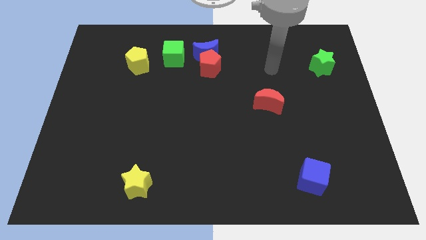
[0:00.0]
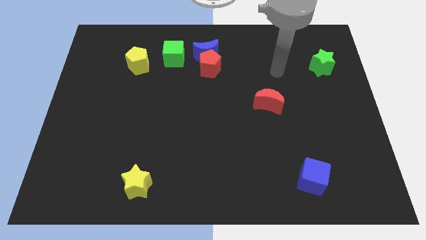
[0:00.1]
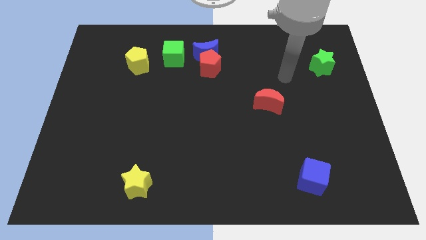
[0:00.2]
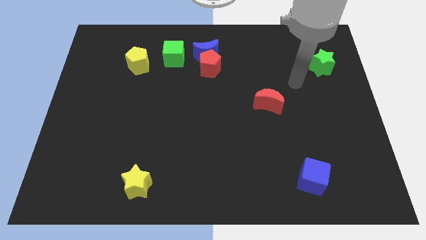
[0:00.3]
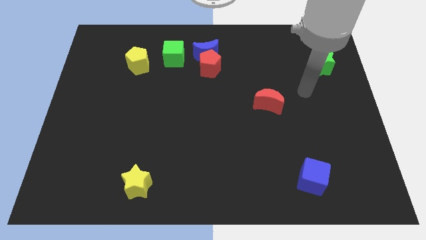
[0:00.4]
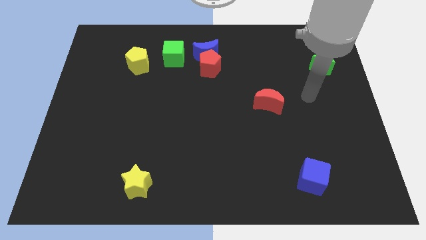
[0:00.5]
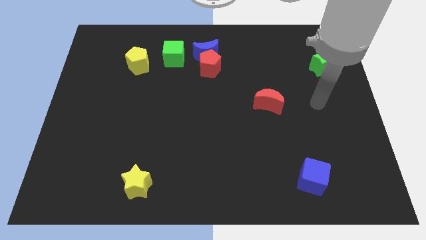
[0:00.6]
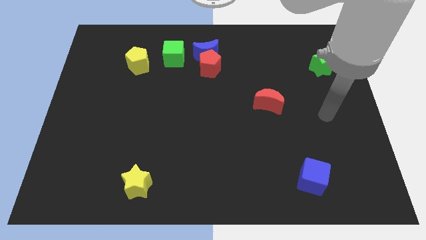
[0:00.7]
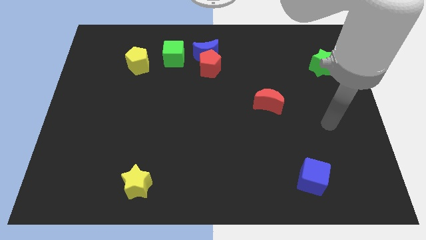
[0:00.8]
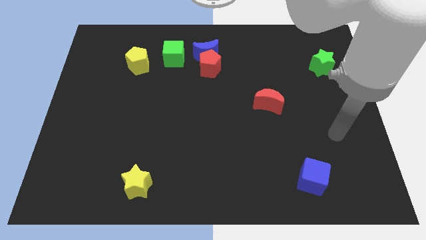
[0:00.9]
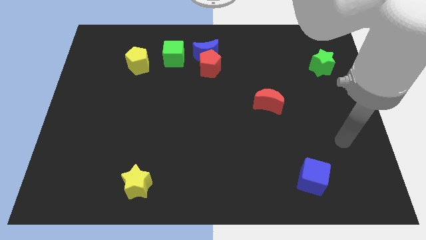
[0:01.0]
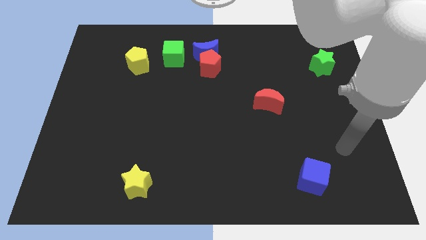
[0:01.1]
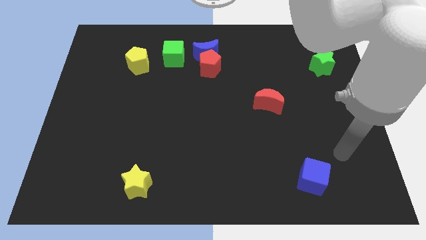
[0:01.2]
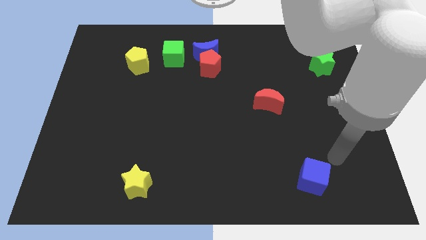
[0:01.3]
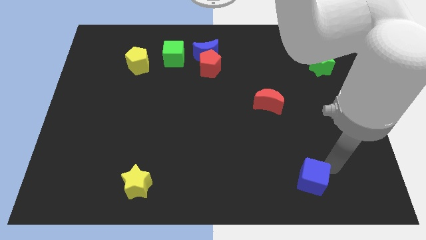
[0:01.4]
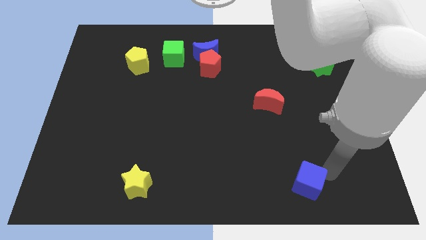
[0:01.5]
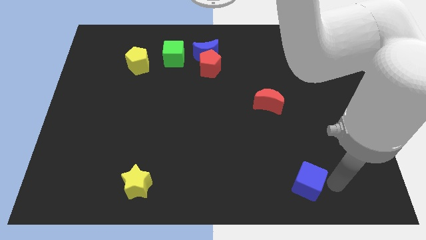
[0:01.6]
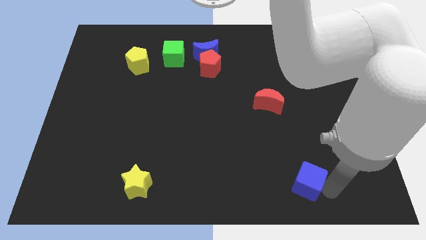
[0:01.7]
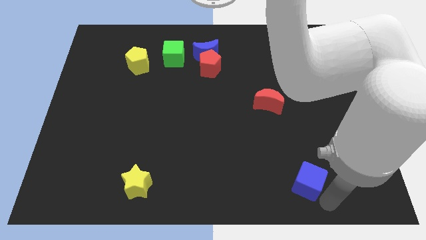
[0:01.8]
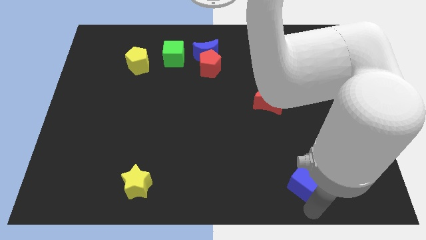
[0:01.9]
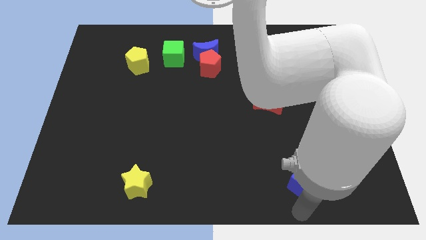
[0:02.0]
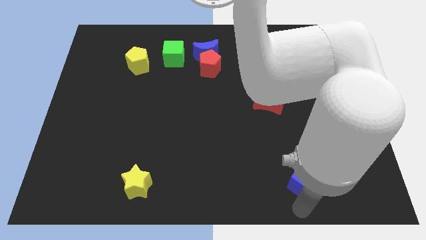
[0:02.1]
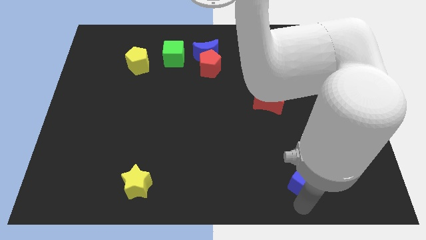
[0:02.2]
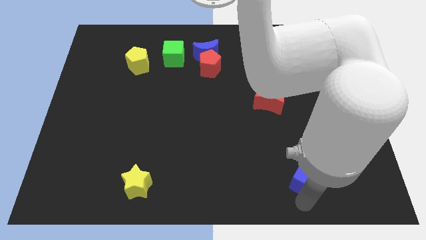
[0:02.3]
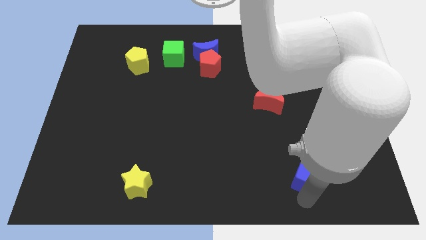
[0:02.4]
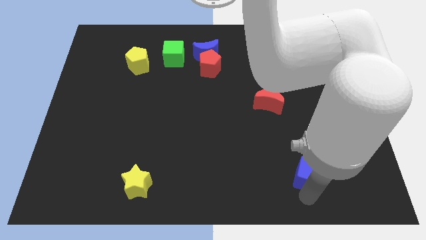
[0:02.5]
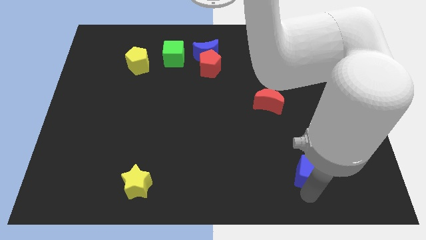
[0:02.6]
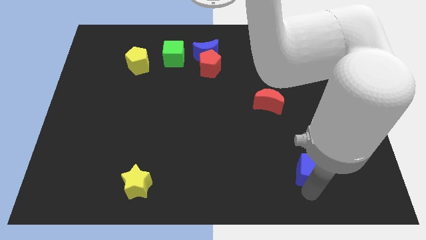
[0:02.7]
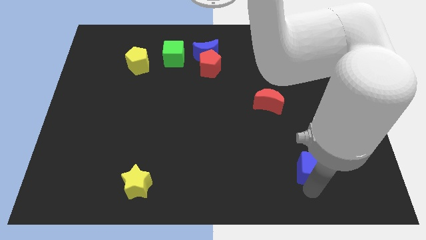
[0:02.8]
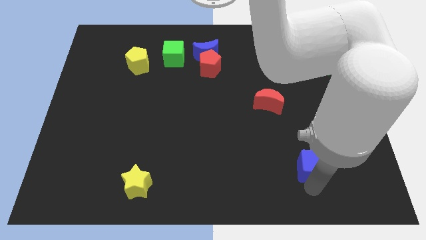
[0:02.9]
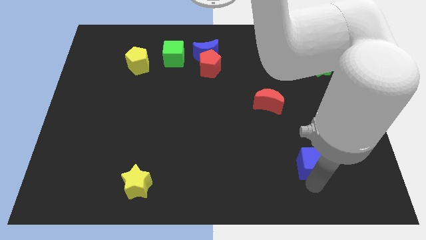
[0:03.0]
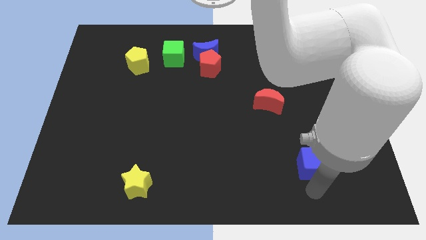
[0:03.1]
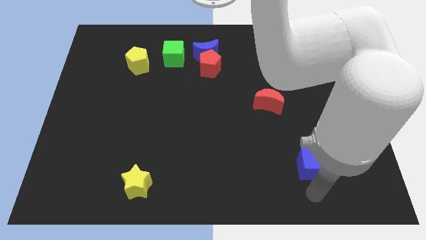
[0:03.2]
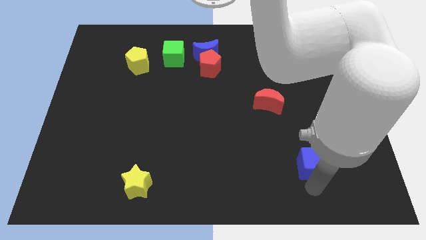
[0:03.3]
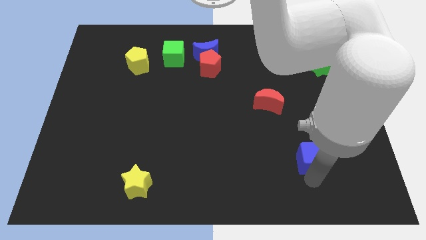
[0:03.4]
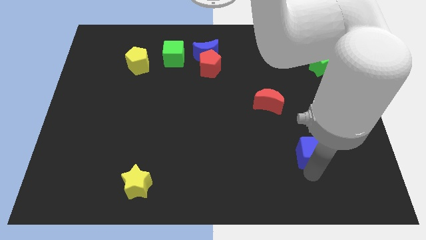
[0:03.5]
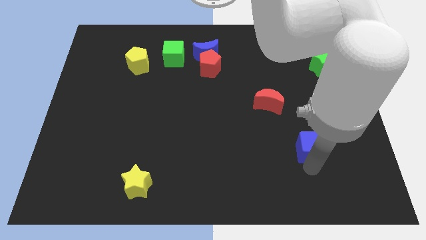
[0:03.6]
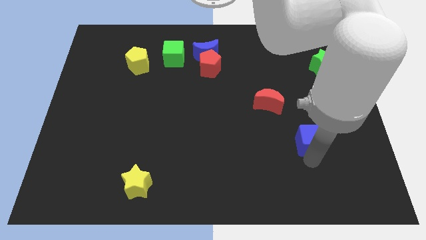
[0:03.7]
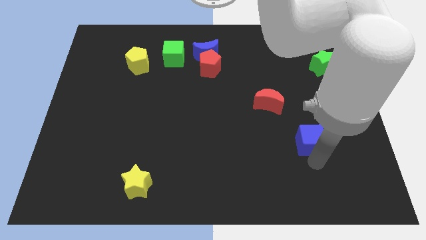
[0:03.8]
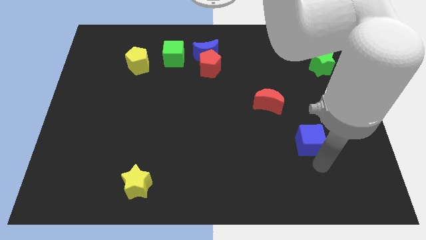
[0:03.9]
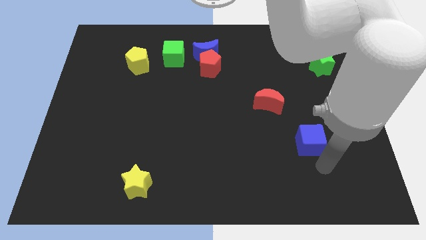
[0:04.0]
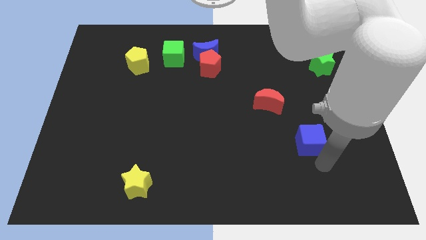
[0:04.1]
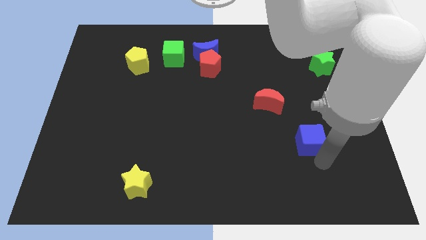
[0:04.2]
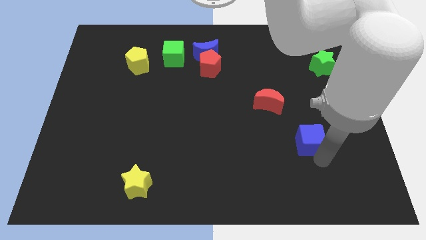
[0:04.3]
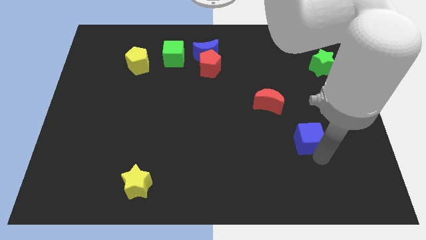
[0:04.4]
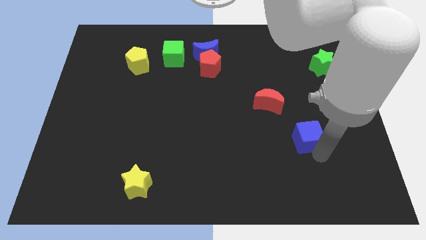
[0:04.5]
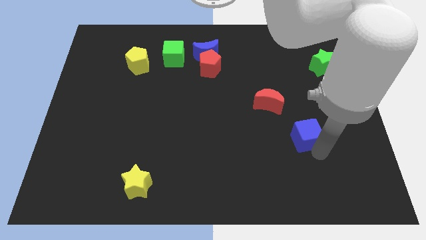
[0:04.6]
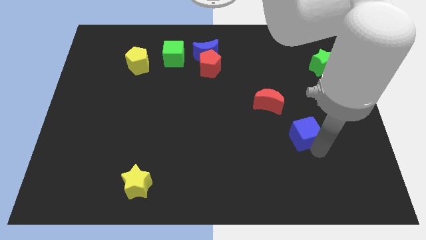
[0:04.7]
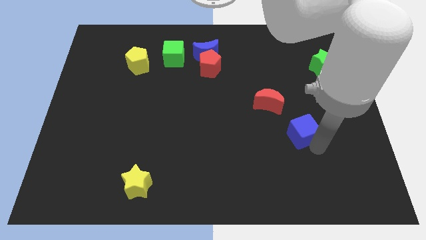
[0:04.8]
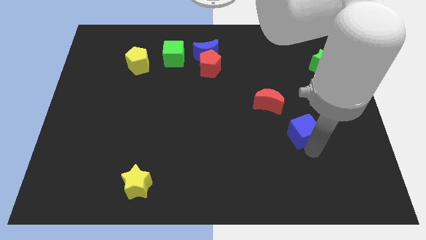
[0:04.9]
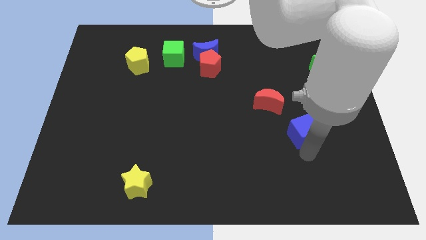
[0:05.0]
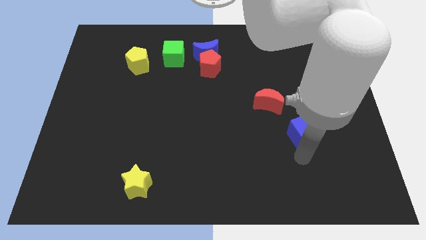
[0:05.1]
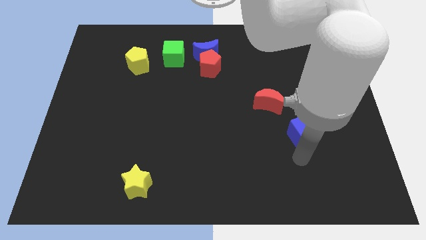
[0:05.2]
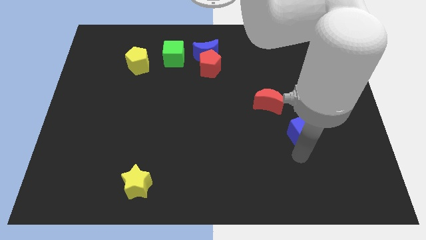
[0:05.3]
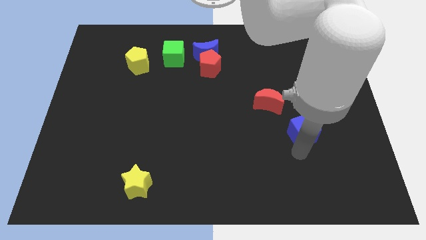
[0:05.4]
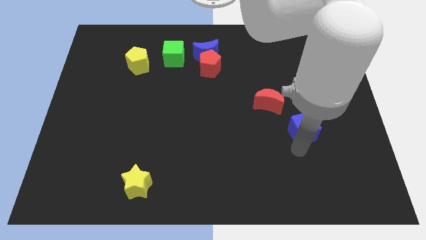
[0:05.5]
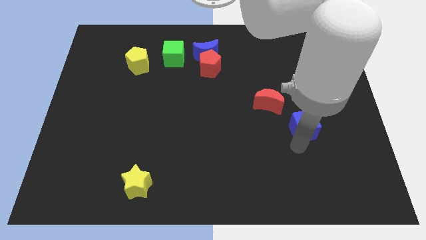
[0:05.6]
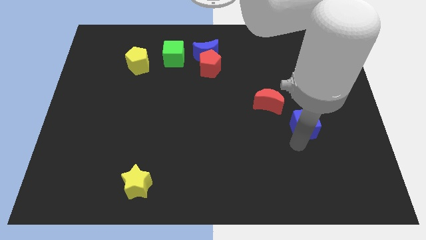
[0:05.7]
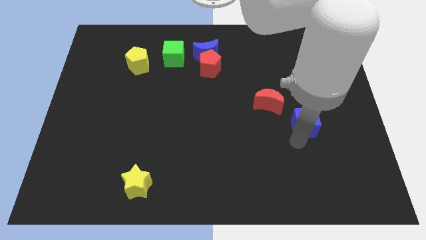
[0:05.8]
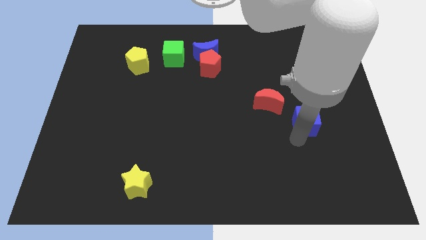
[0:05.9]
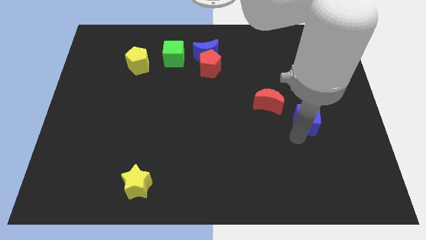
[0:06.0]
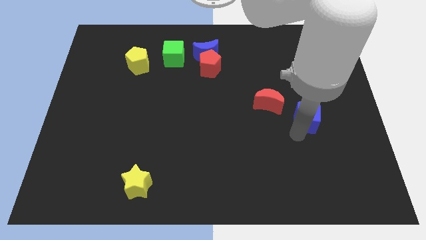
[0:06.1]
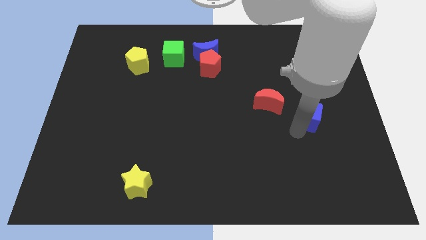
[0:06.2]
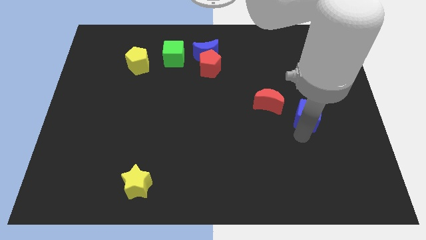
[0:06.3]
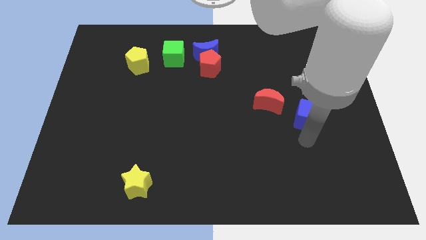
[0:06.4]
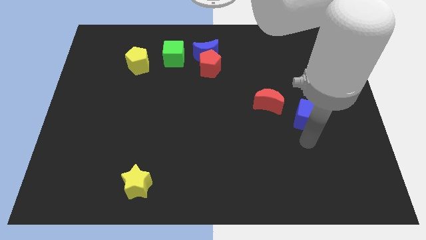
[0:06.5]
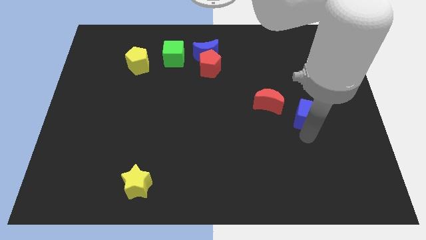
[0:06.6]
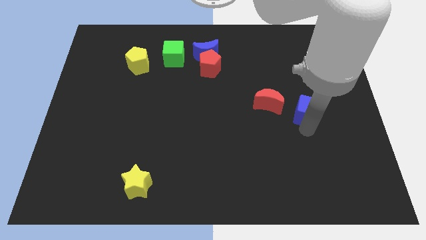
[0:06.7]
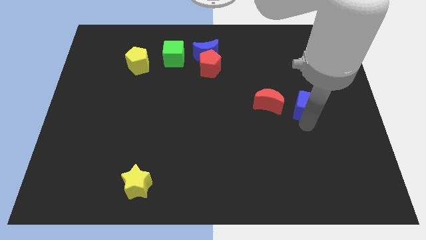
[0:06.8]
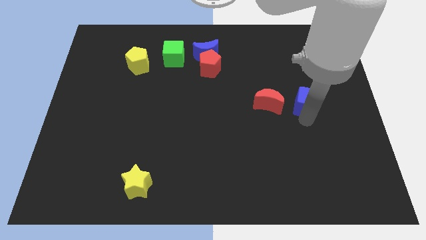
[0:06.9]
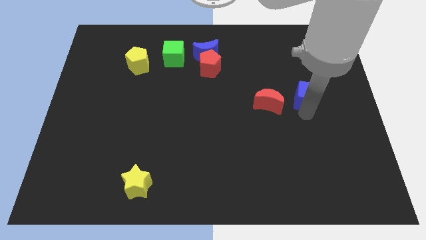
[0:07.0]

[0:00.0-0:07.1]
move the blue cube diagonally down and to the left of the green star

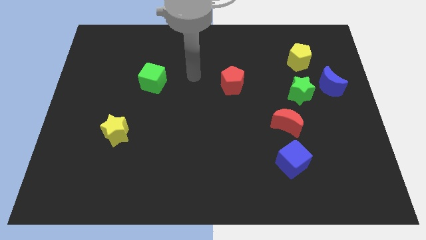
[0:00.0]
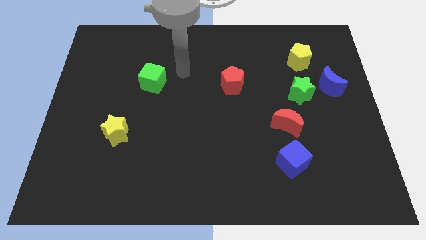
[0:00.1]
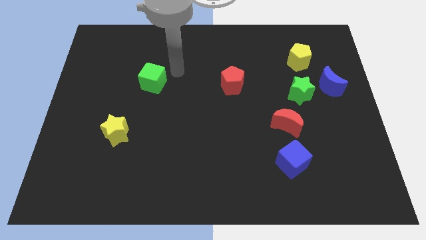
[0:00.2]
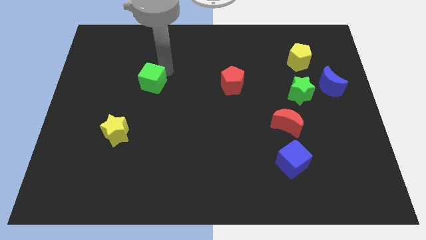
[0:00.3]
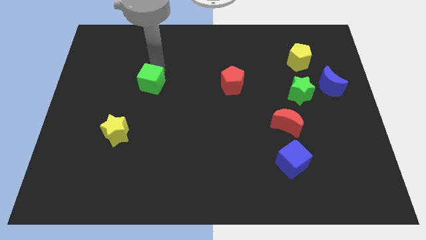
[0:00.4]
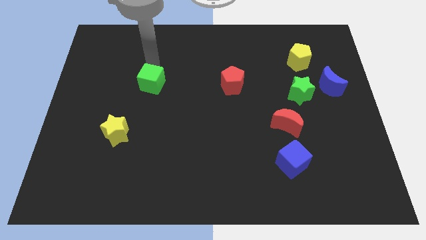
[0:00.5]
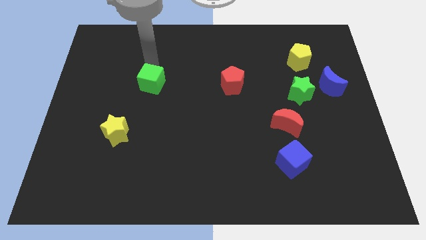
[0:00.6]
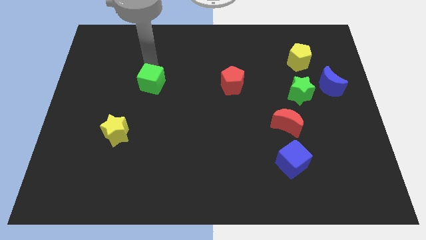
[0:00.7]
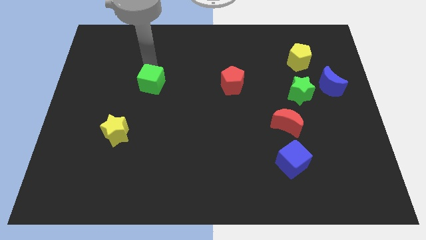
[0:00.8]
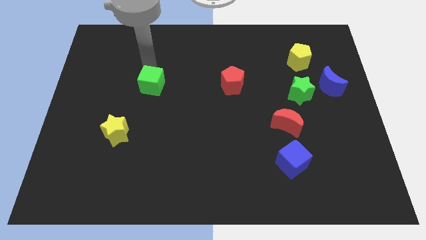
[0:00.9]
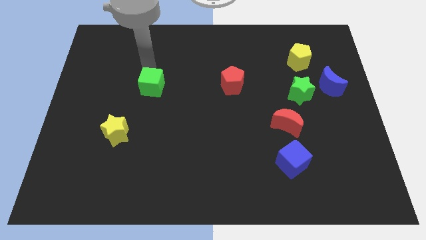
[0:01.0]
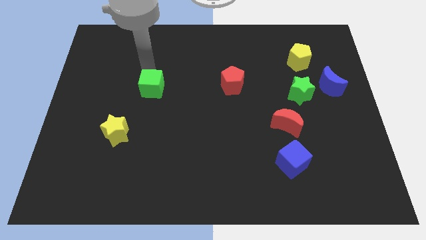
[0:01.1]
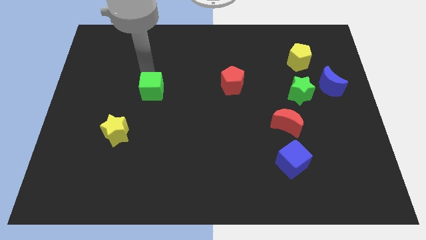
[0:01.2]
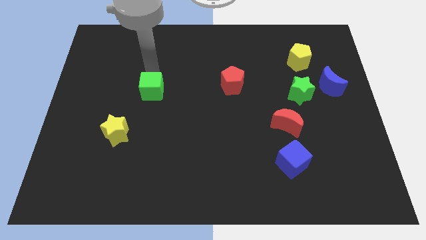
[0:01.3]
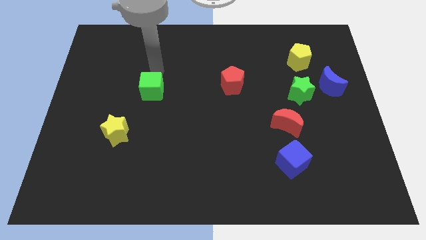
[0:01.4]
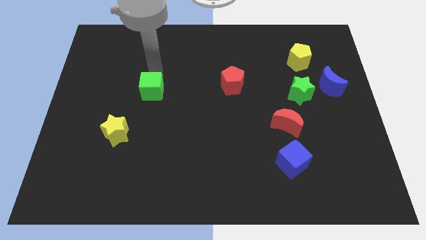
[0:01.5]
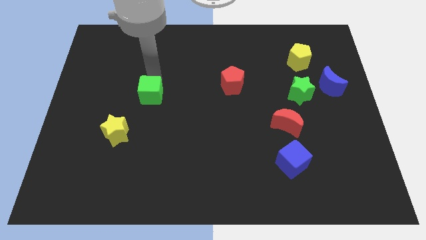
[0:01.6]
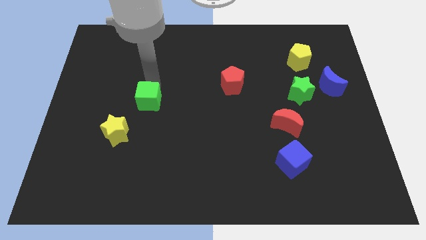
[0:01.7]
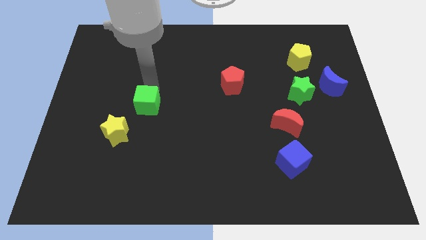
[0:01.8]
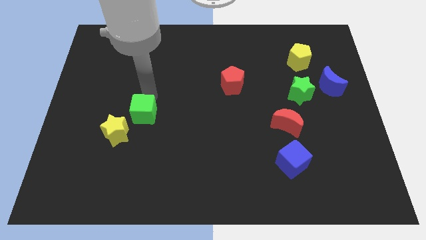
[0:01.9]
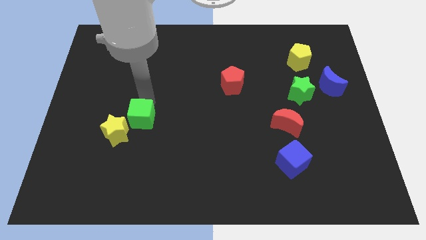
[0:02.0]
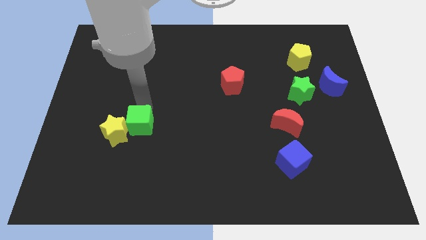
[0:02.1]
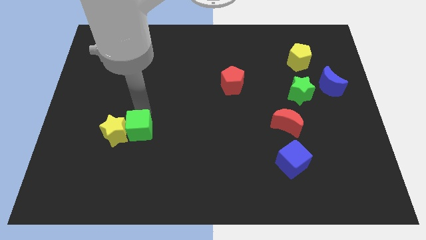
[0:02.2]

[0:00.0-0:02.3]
put the green cube diagonally down and to the right of the yellow star

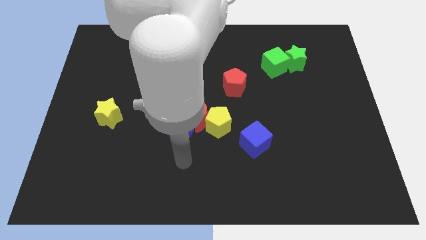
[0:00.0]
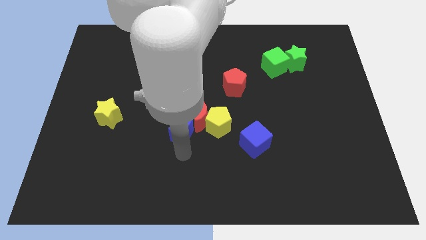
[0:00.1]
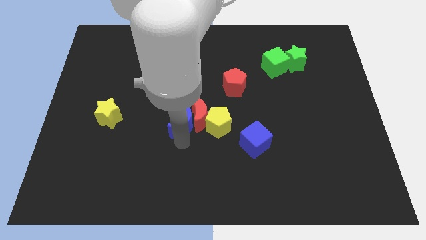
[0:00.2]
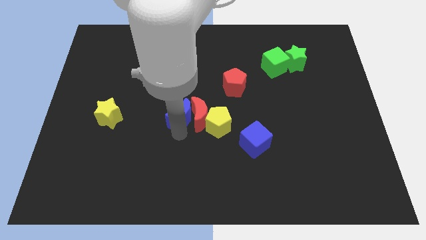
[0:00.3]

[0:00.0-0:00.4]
slide the red moon to the bottom right side of the blue moon
